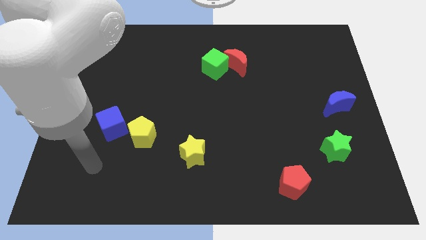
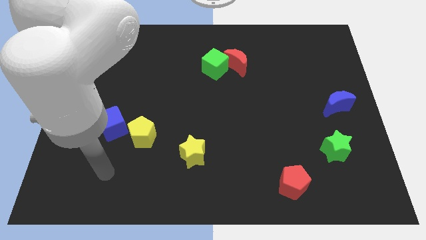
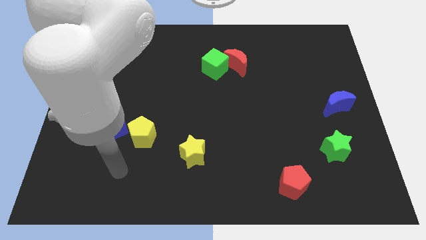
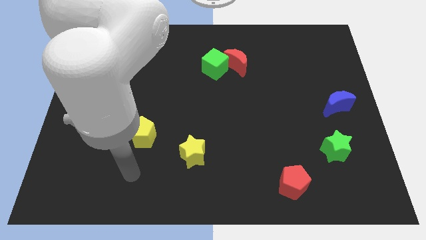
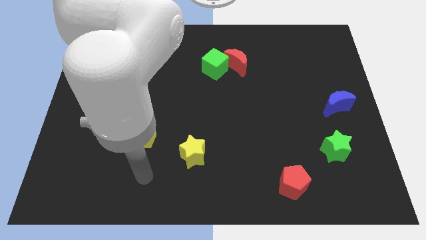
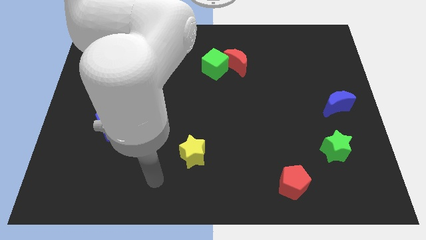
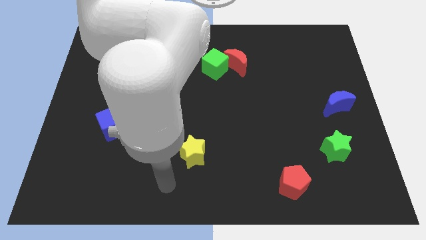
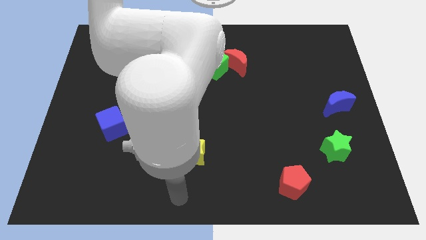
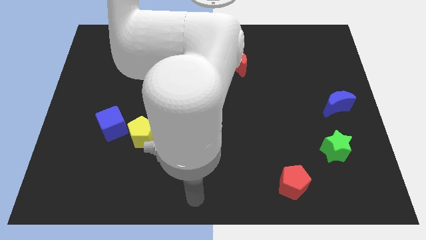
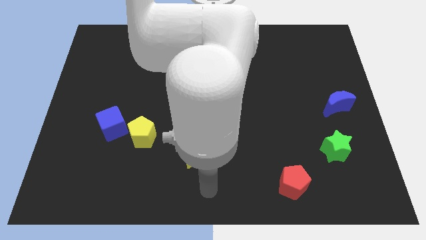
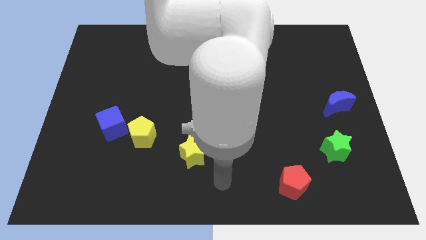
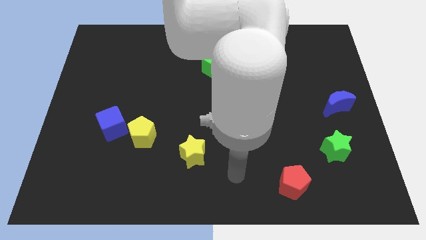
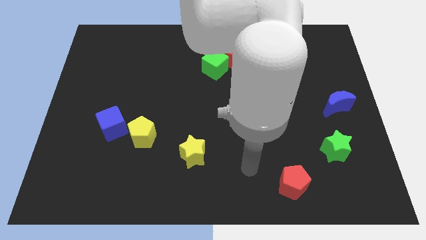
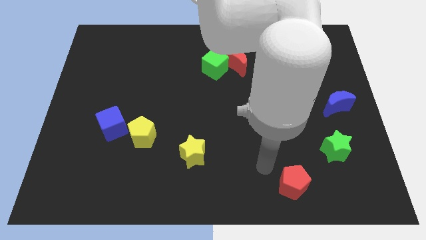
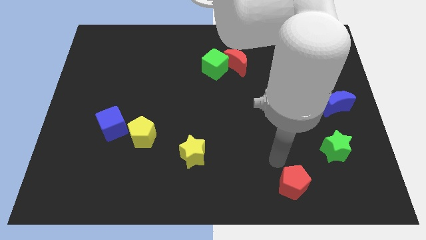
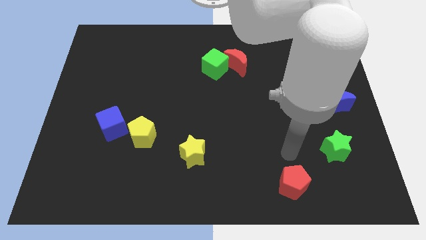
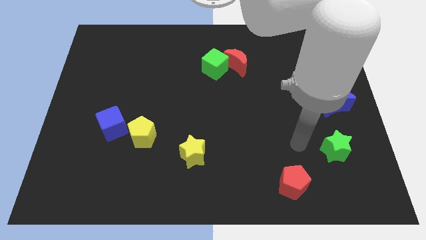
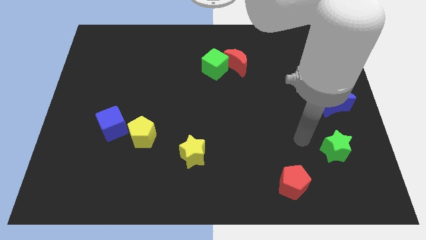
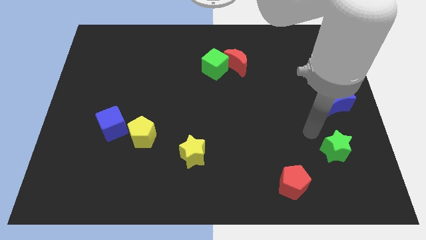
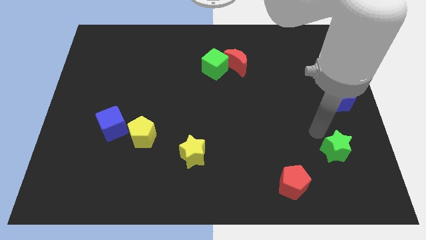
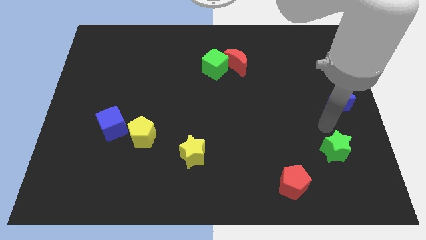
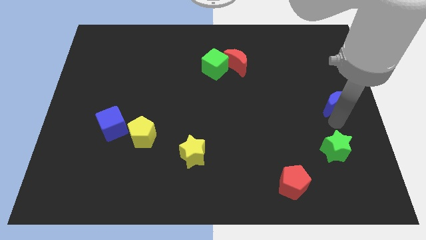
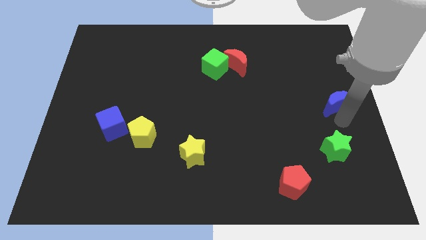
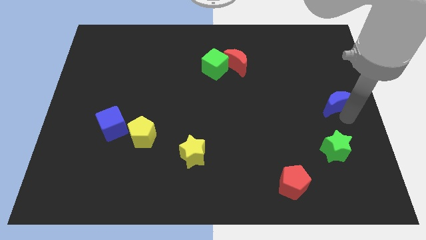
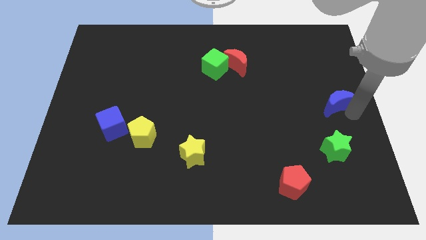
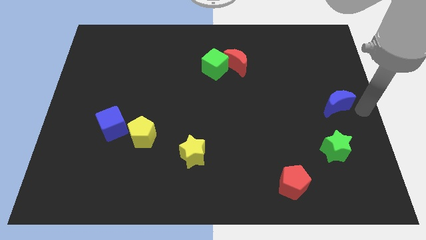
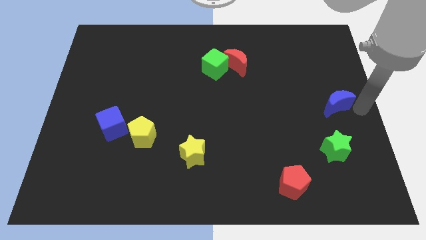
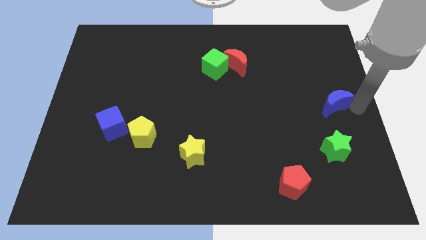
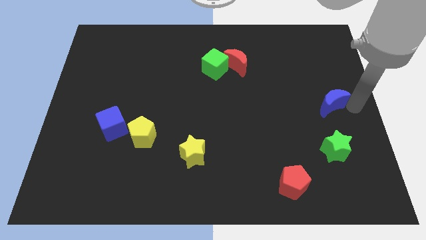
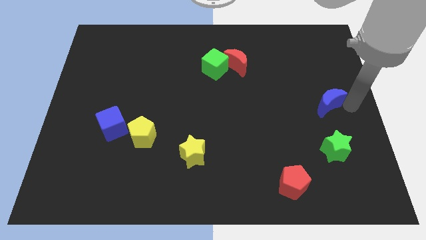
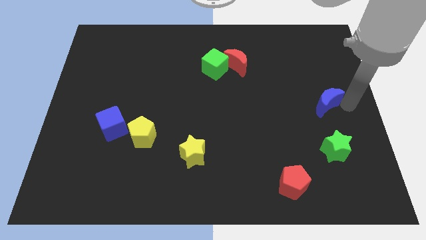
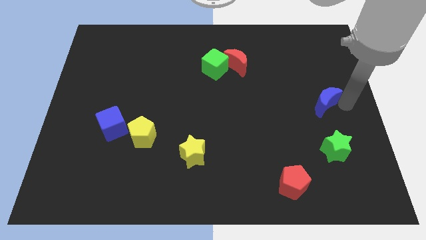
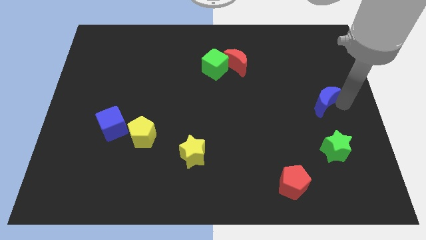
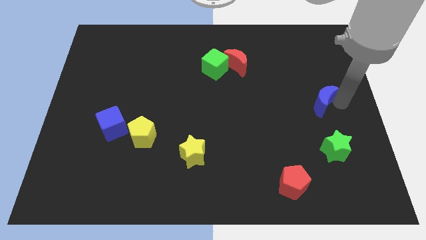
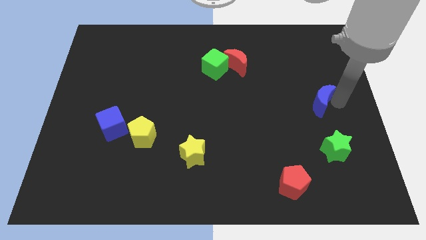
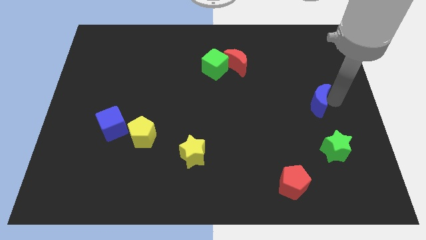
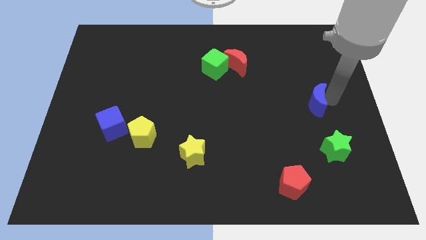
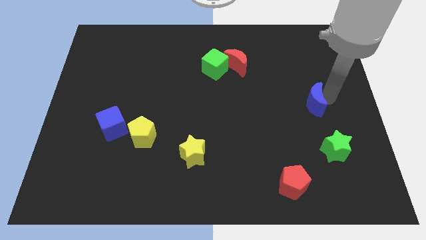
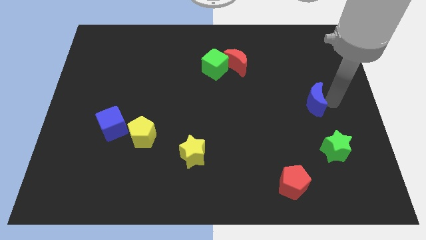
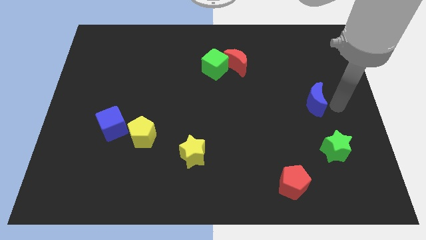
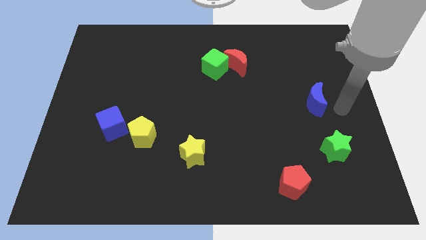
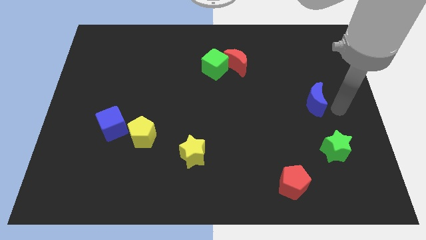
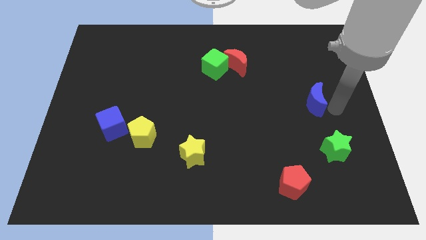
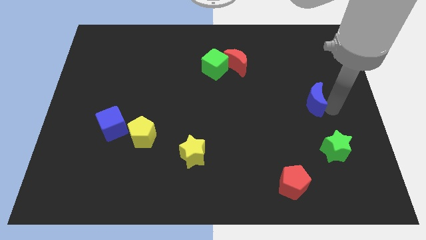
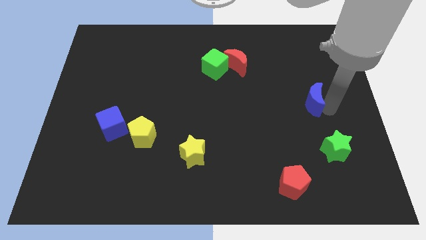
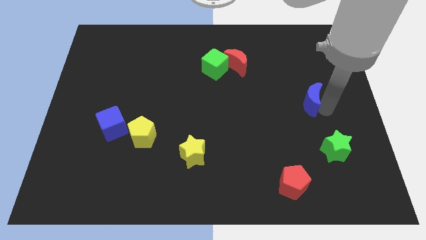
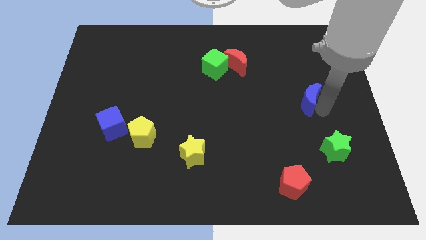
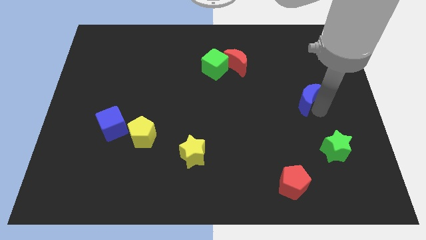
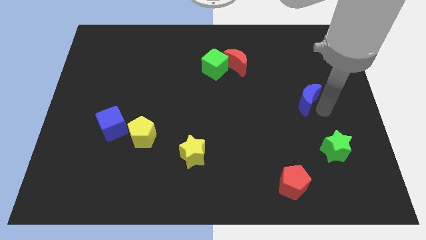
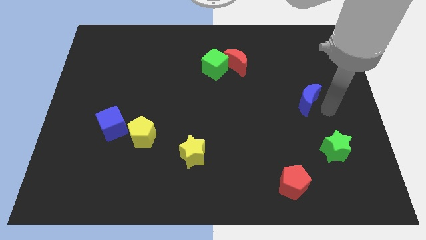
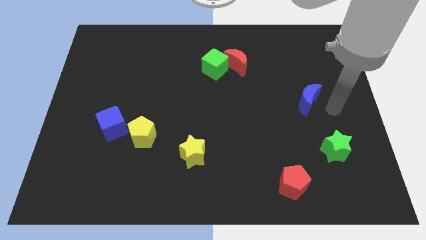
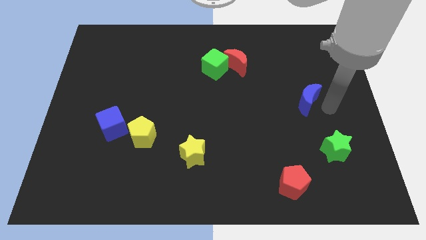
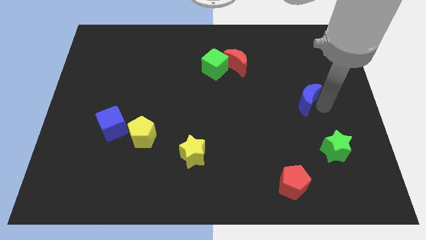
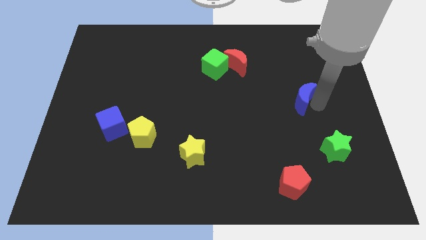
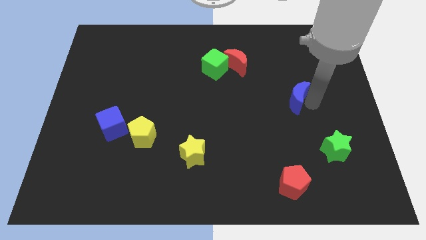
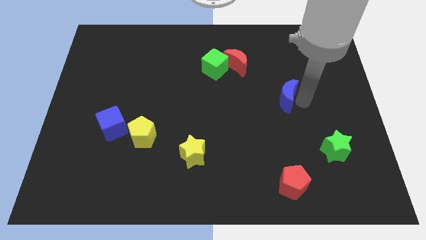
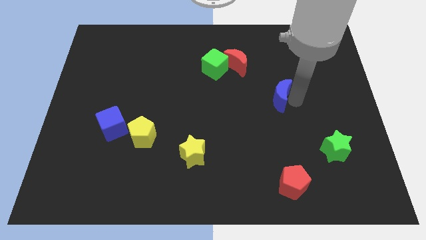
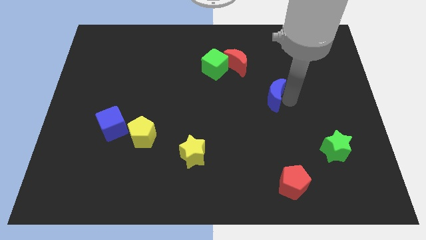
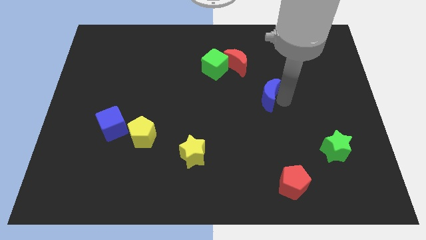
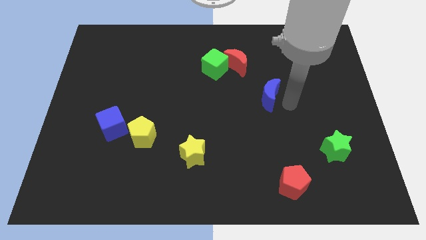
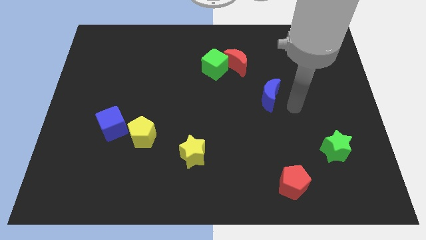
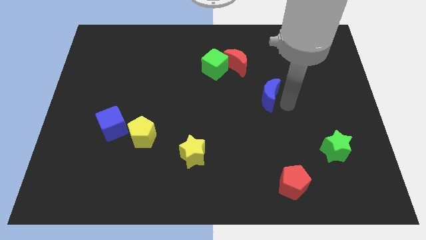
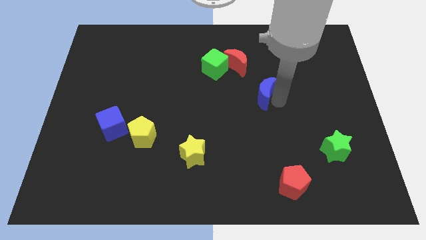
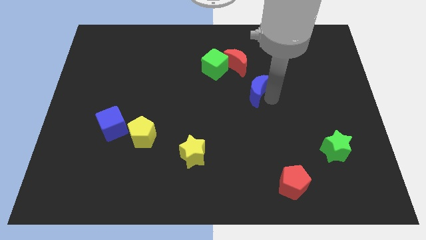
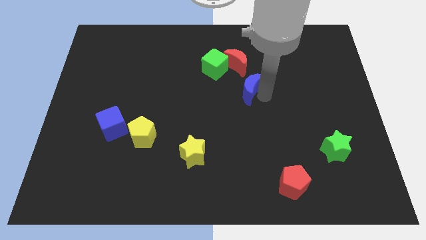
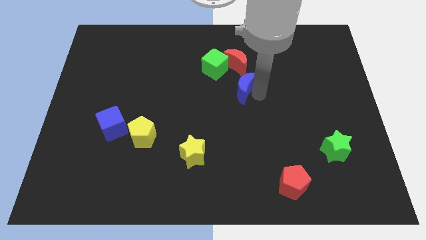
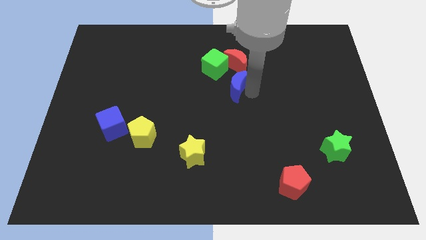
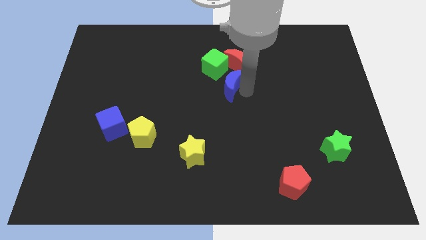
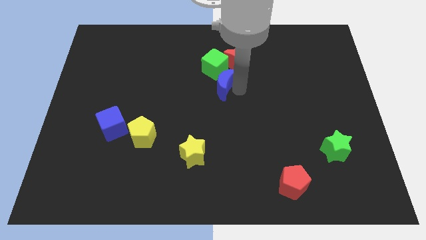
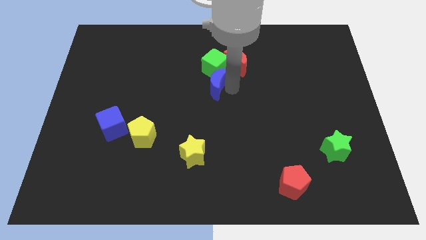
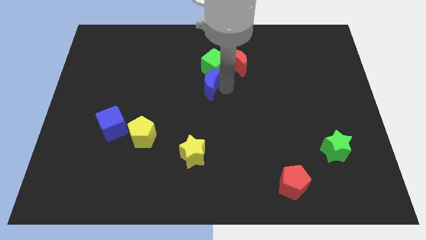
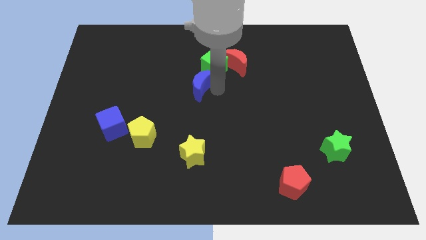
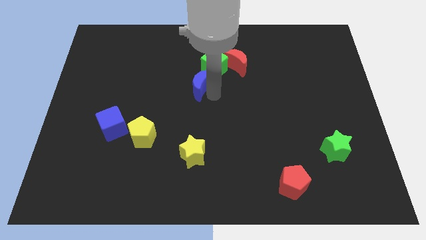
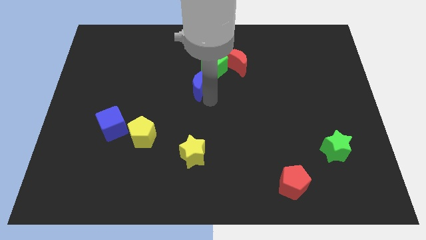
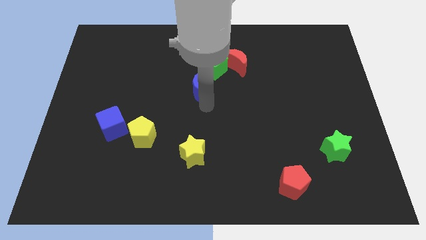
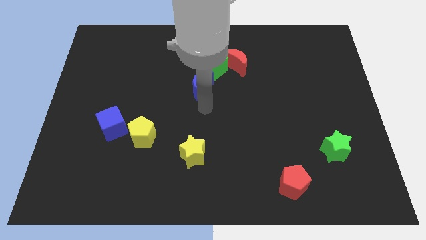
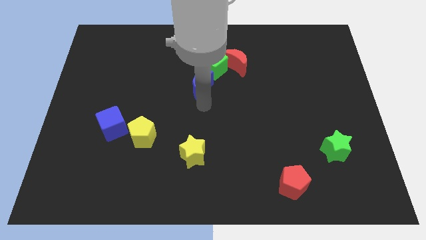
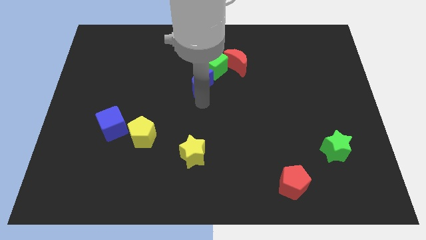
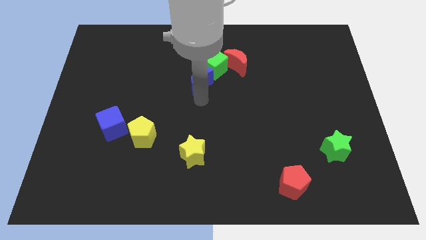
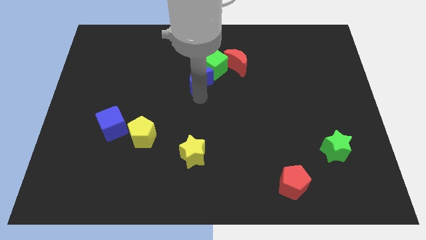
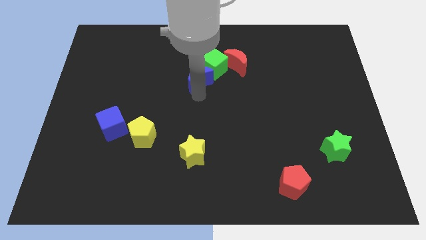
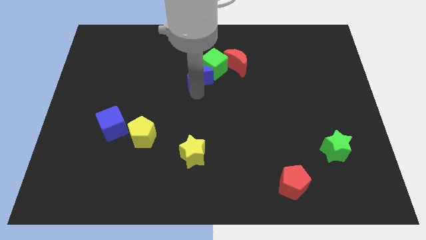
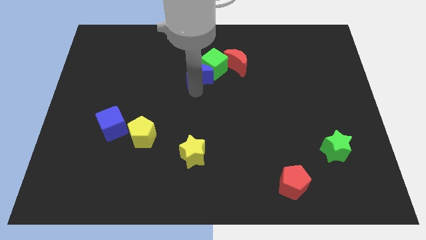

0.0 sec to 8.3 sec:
slide the blue moon just left of the red moon
